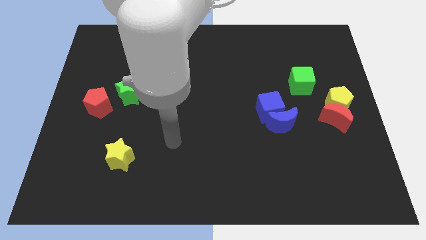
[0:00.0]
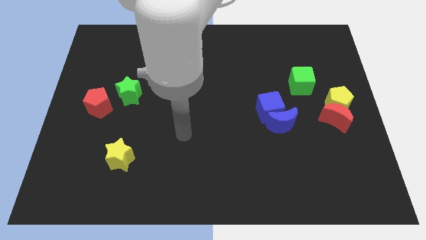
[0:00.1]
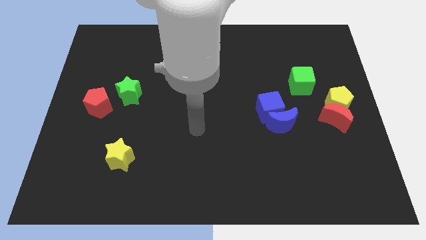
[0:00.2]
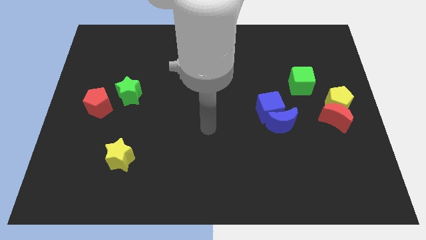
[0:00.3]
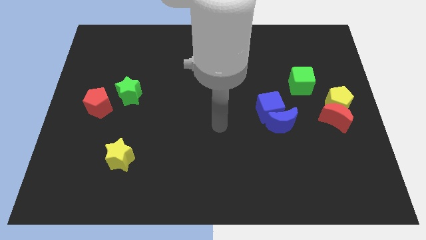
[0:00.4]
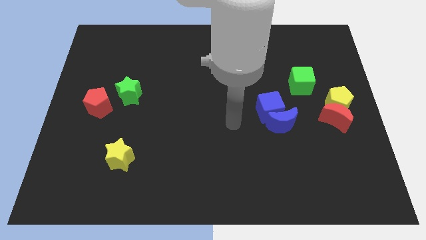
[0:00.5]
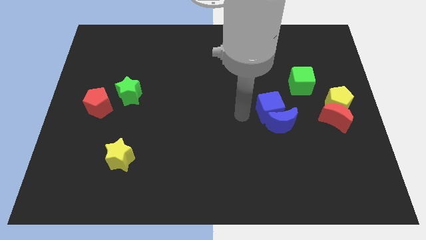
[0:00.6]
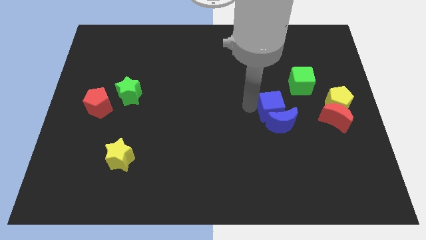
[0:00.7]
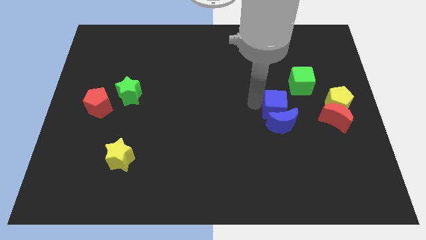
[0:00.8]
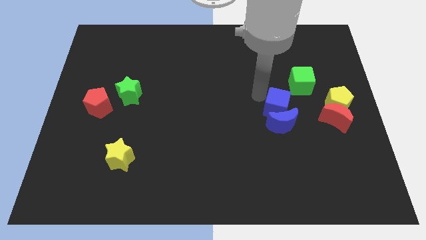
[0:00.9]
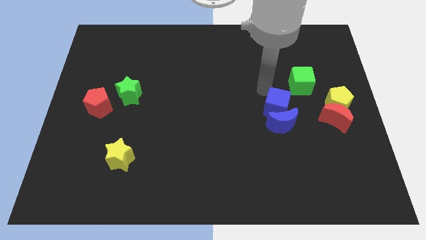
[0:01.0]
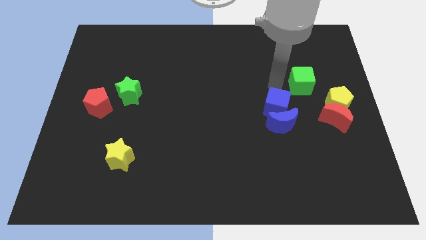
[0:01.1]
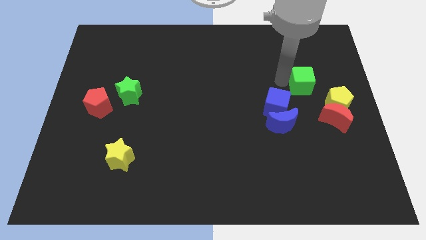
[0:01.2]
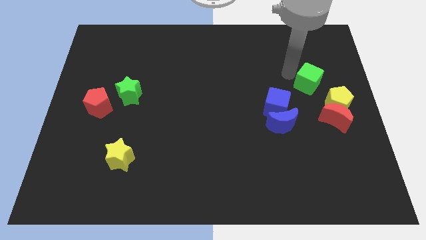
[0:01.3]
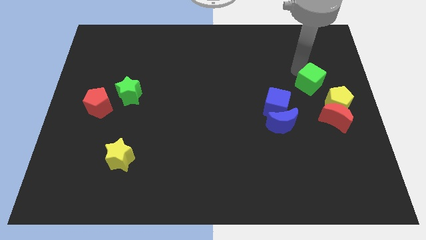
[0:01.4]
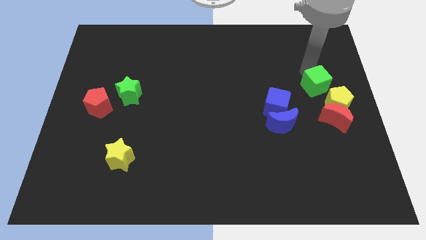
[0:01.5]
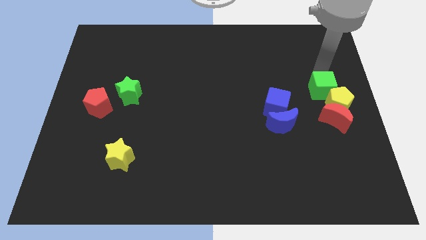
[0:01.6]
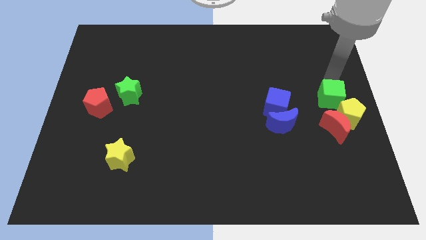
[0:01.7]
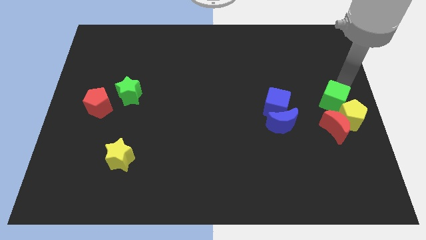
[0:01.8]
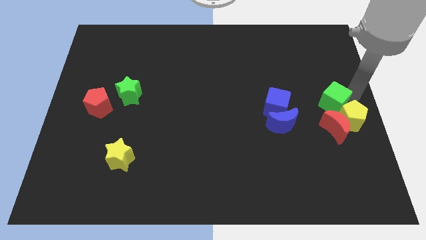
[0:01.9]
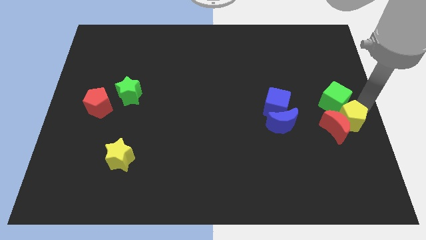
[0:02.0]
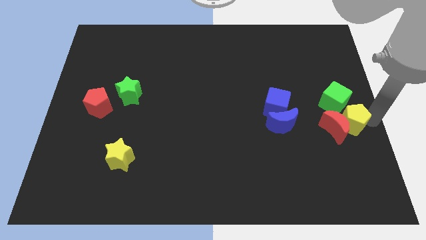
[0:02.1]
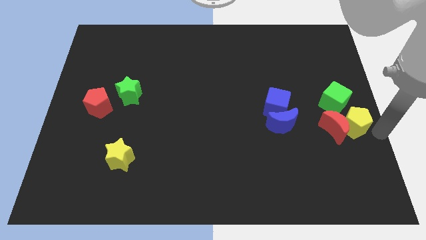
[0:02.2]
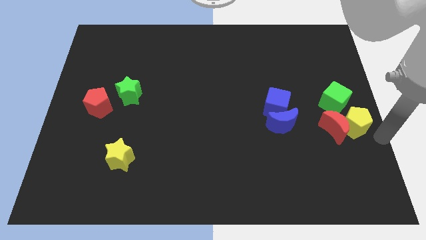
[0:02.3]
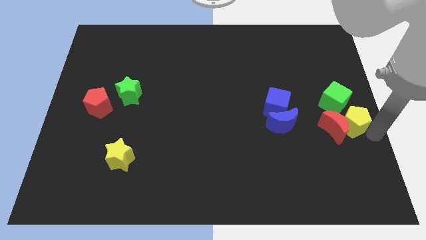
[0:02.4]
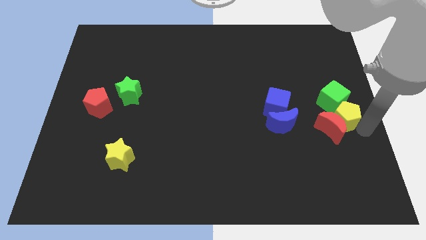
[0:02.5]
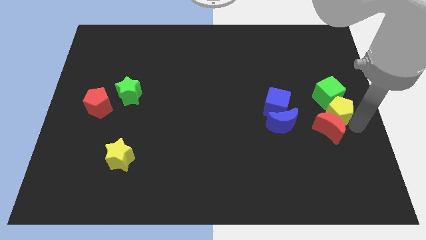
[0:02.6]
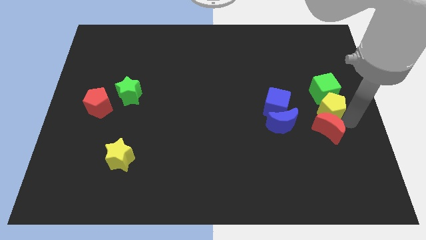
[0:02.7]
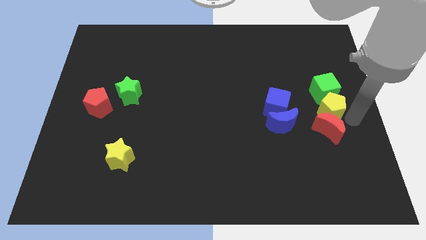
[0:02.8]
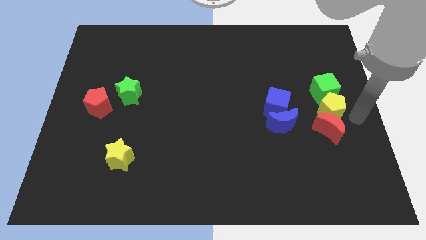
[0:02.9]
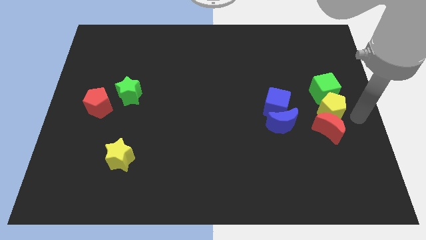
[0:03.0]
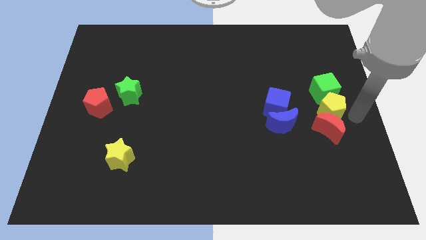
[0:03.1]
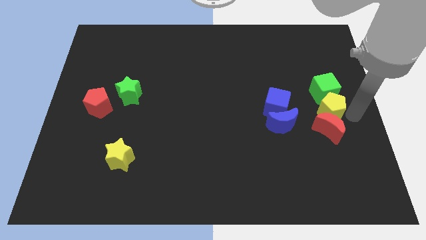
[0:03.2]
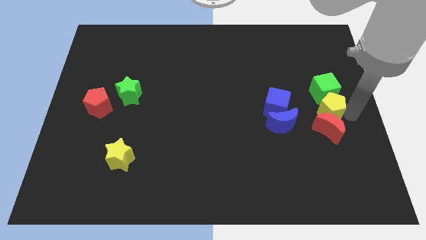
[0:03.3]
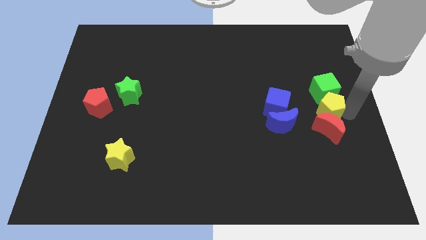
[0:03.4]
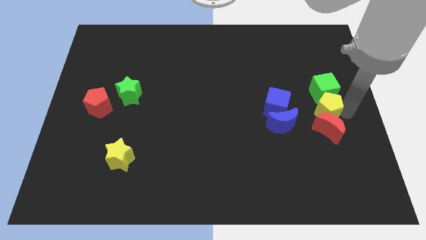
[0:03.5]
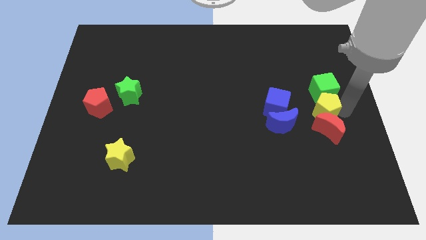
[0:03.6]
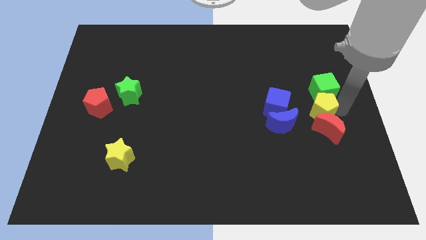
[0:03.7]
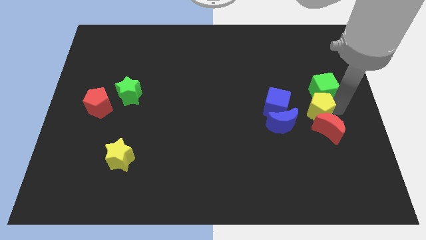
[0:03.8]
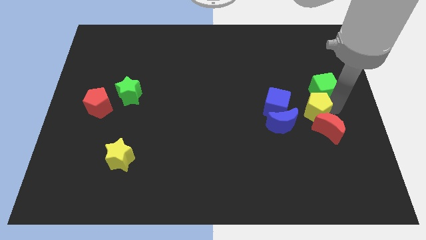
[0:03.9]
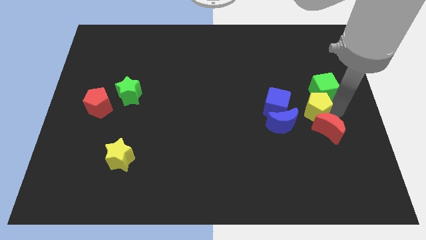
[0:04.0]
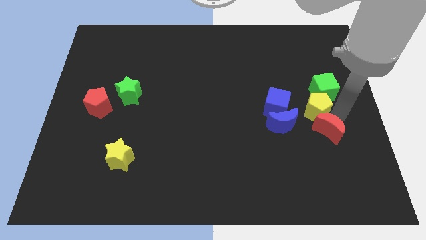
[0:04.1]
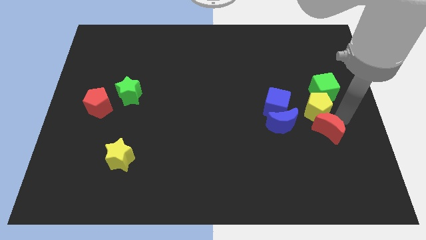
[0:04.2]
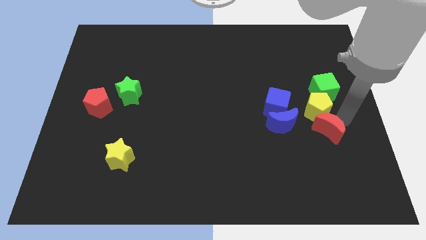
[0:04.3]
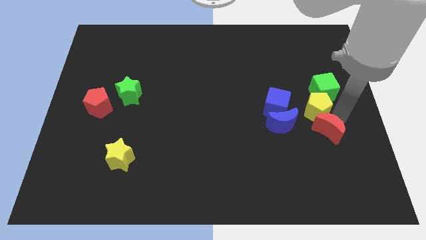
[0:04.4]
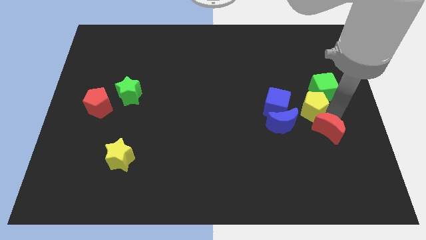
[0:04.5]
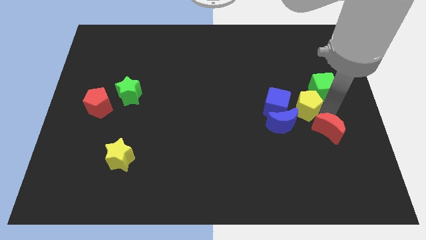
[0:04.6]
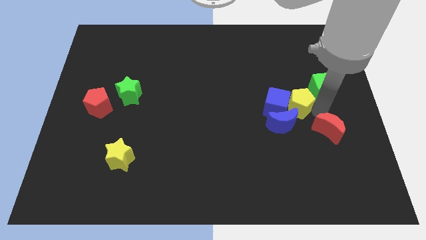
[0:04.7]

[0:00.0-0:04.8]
slide the yellow pentagon close to the blue cube

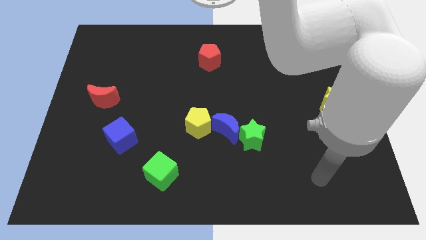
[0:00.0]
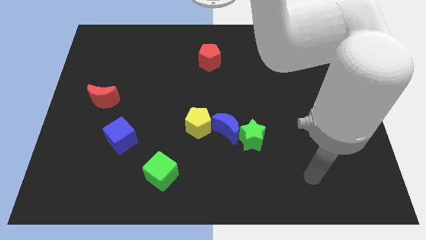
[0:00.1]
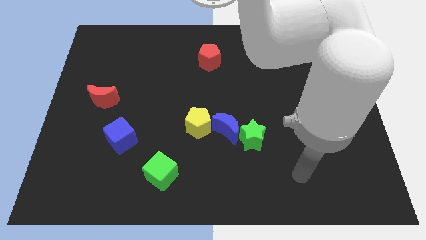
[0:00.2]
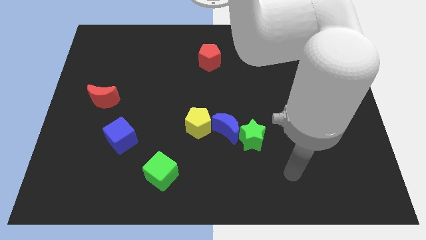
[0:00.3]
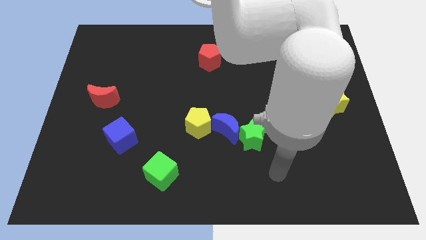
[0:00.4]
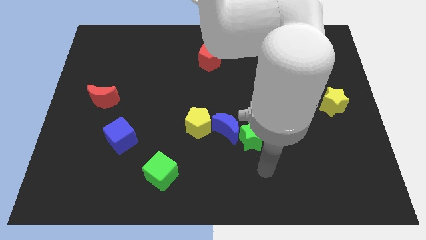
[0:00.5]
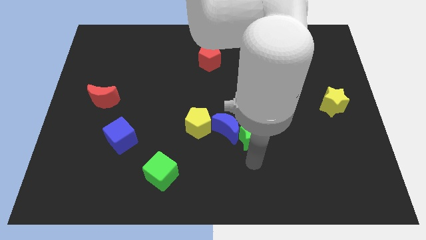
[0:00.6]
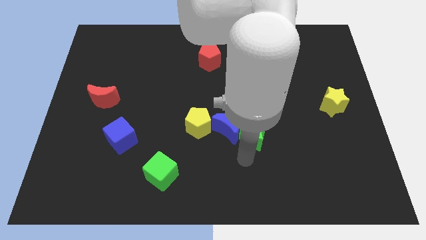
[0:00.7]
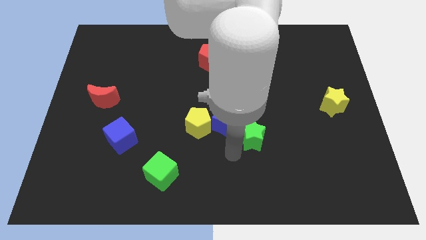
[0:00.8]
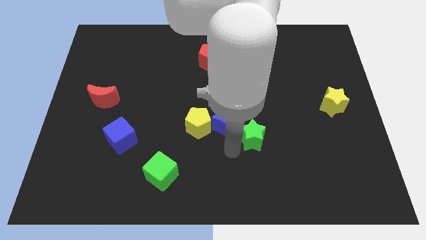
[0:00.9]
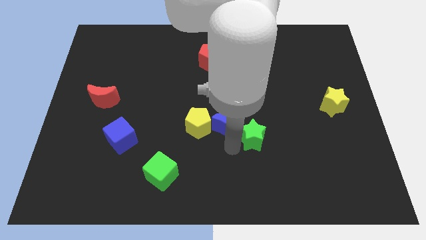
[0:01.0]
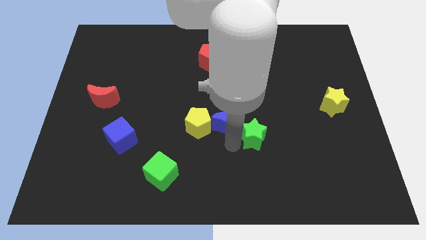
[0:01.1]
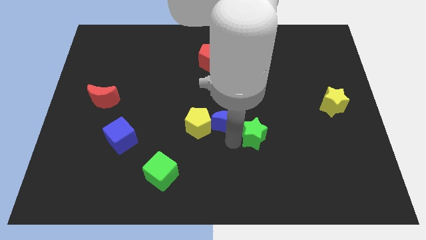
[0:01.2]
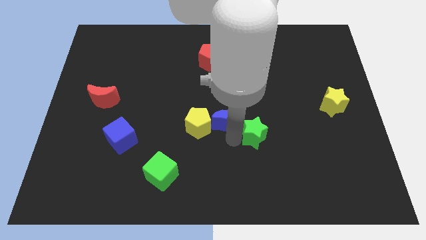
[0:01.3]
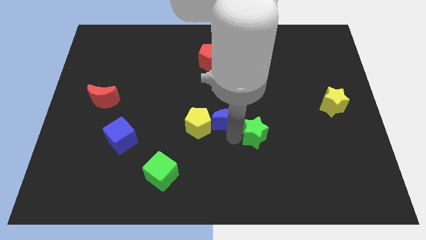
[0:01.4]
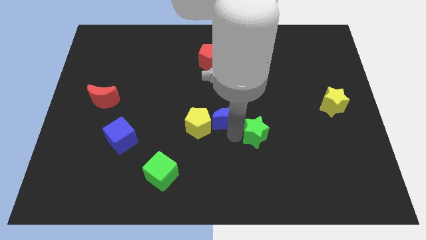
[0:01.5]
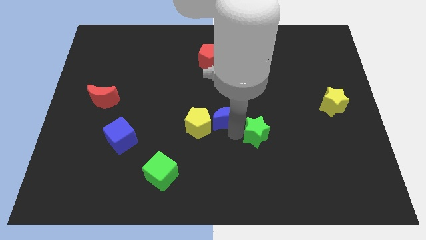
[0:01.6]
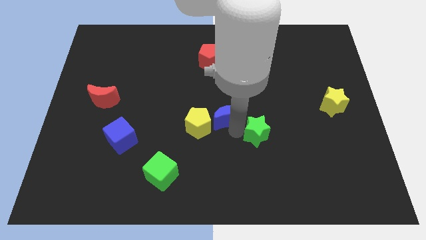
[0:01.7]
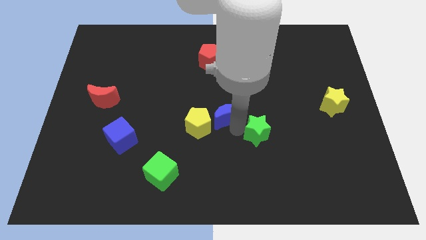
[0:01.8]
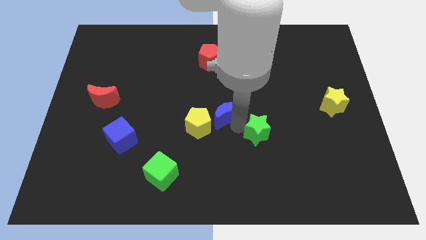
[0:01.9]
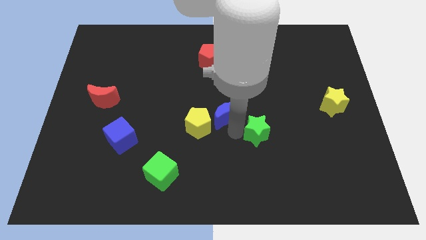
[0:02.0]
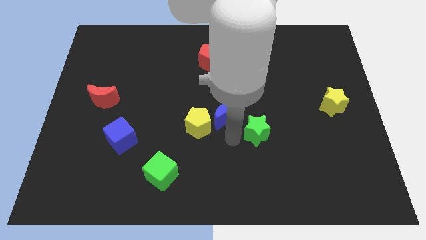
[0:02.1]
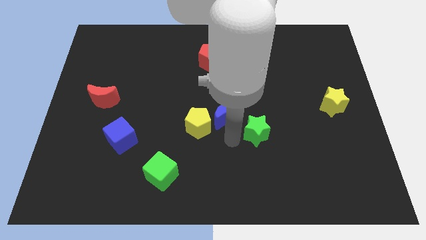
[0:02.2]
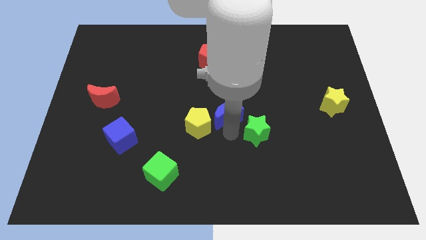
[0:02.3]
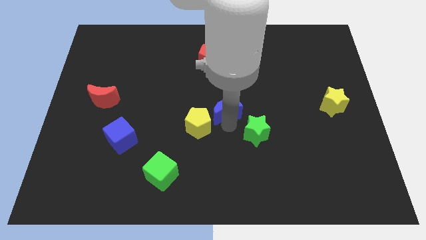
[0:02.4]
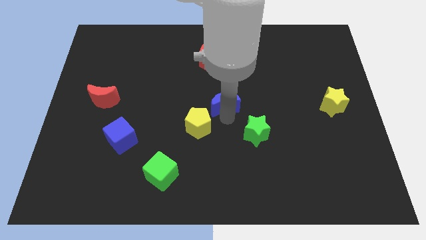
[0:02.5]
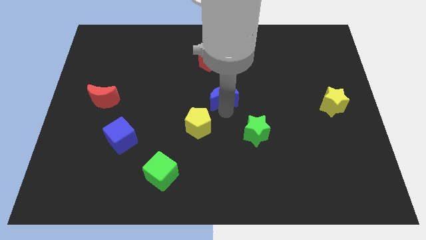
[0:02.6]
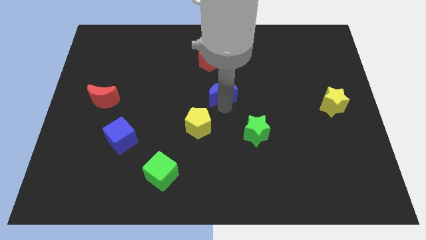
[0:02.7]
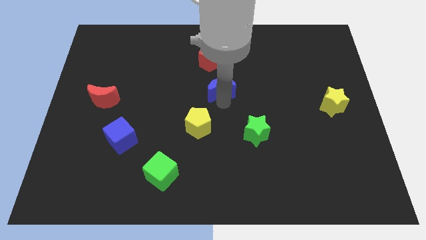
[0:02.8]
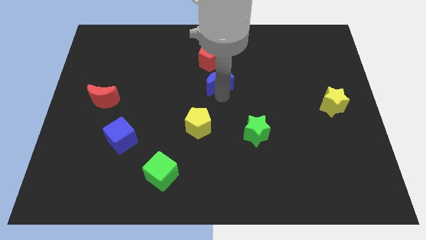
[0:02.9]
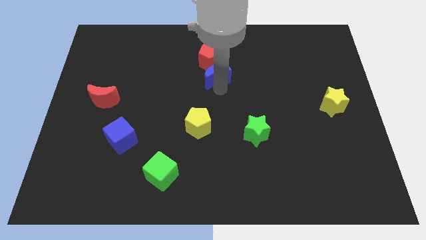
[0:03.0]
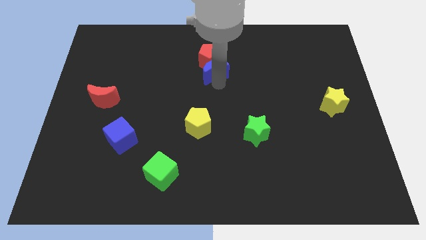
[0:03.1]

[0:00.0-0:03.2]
slide the blue moon to the red pentagon
